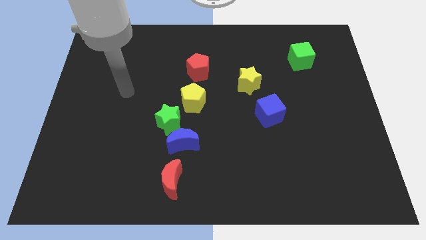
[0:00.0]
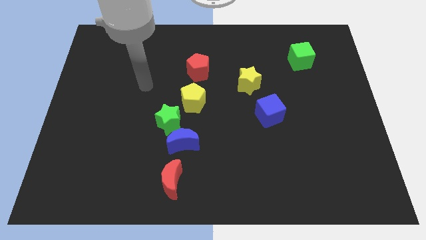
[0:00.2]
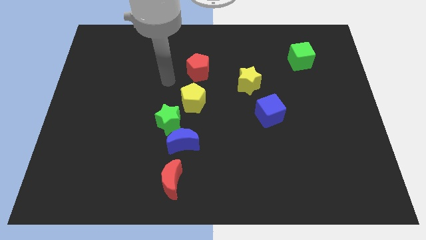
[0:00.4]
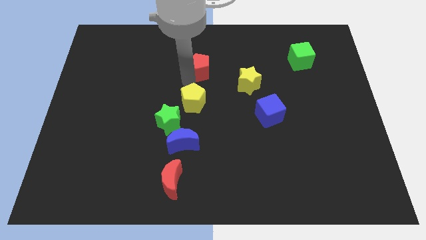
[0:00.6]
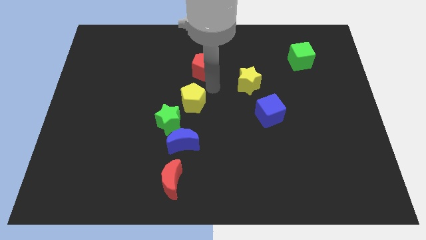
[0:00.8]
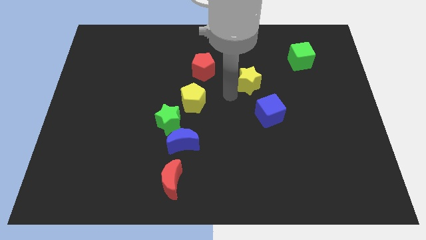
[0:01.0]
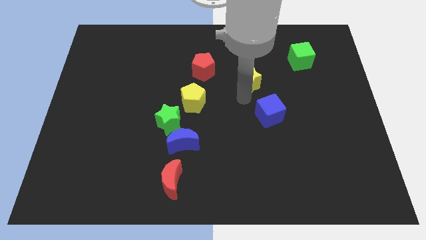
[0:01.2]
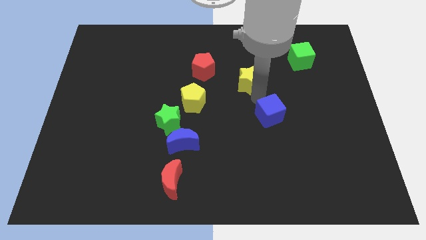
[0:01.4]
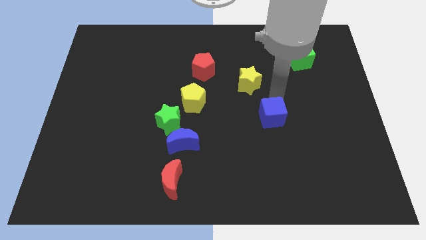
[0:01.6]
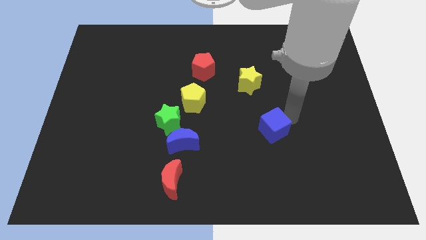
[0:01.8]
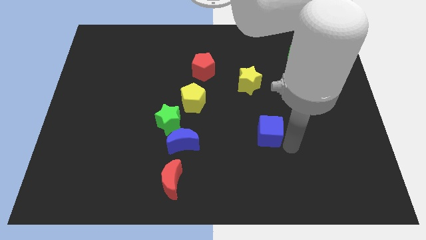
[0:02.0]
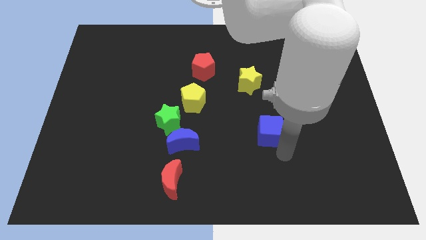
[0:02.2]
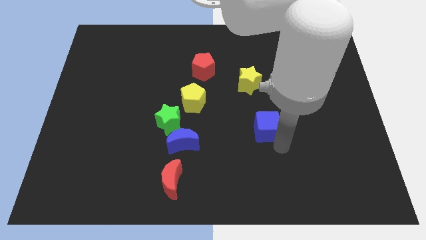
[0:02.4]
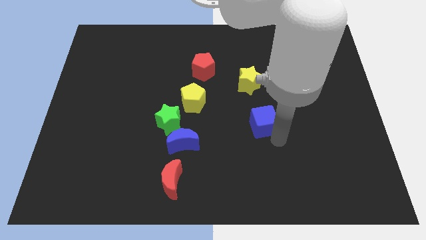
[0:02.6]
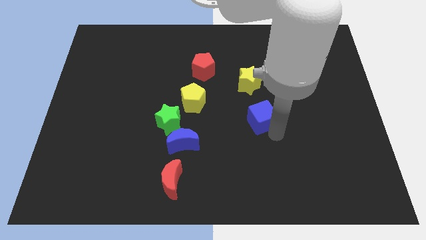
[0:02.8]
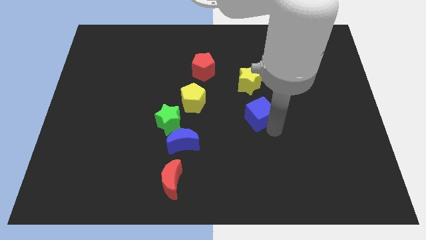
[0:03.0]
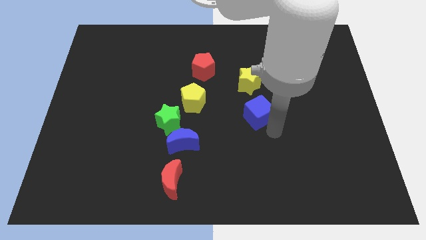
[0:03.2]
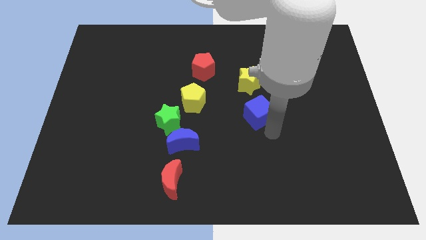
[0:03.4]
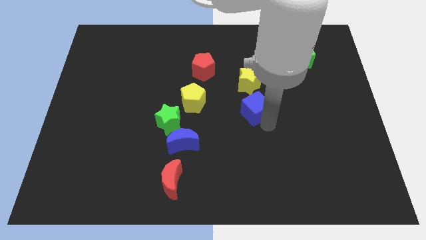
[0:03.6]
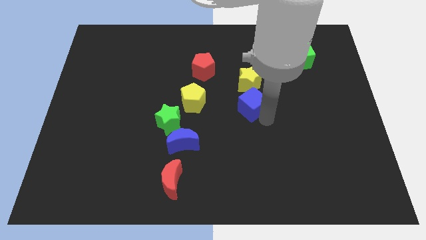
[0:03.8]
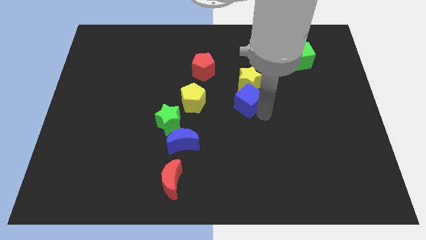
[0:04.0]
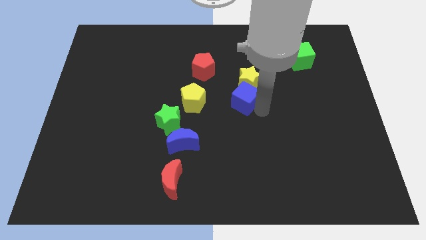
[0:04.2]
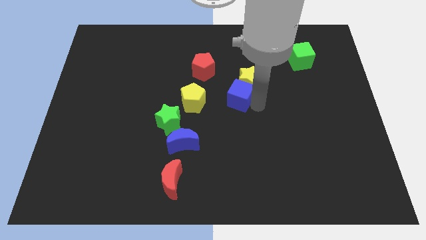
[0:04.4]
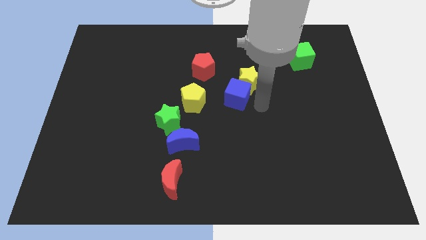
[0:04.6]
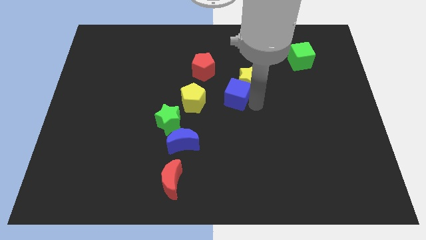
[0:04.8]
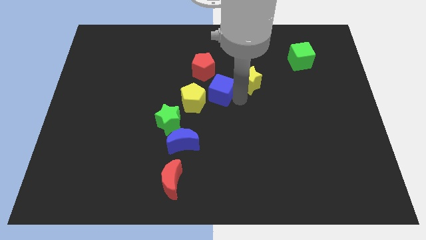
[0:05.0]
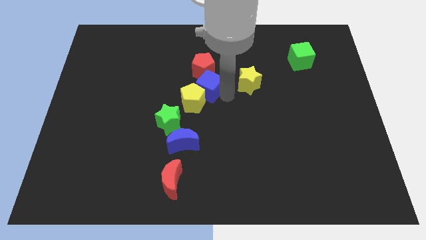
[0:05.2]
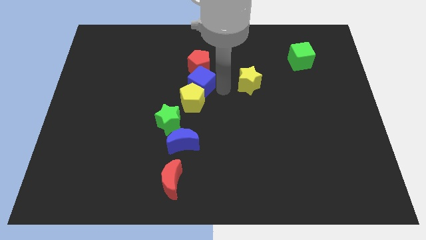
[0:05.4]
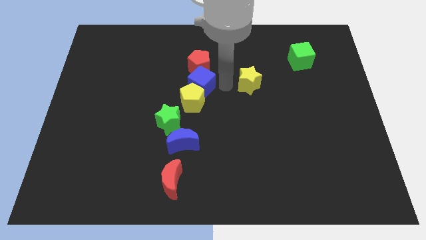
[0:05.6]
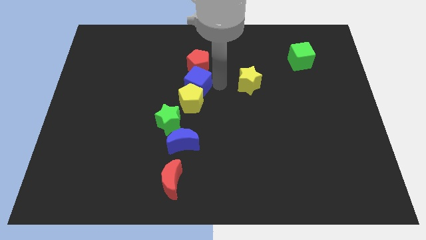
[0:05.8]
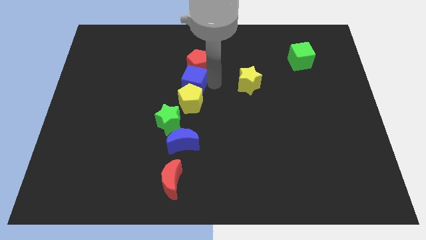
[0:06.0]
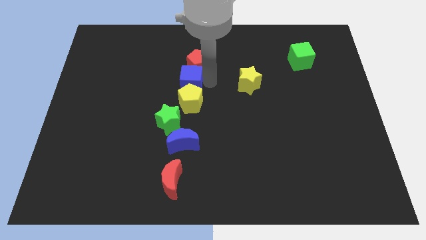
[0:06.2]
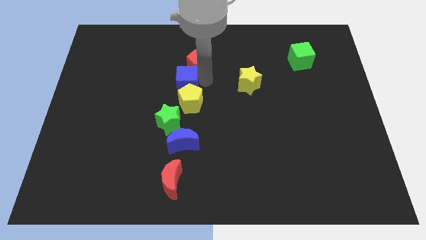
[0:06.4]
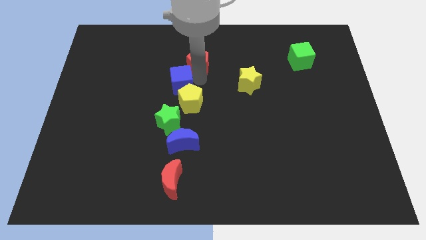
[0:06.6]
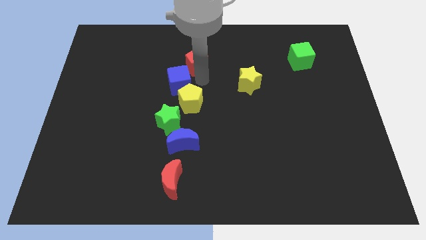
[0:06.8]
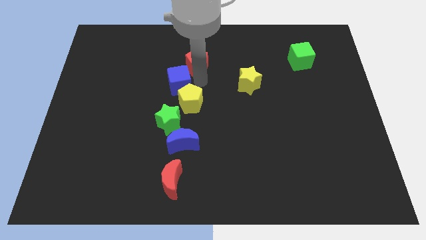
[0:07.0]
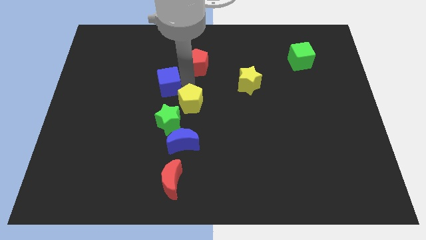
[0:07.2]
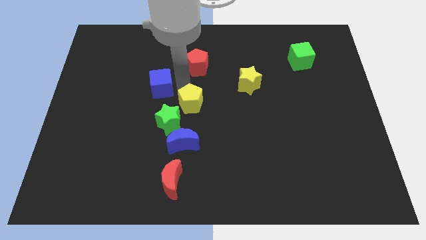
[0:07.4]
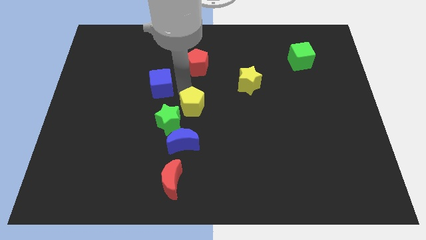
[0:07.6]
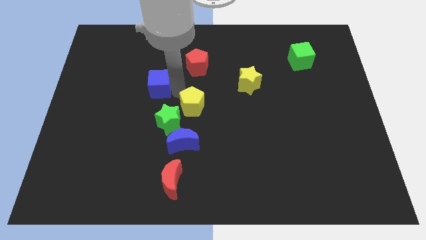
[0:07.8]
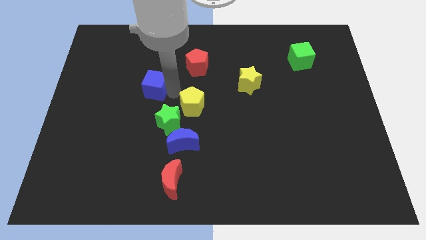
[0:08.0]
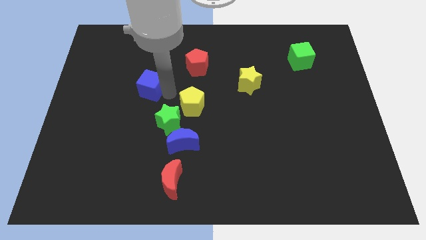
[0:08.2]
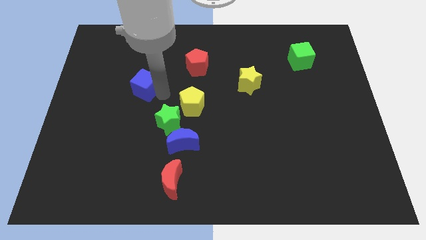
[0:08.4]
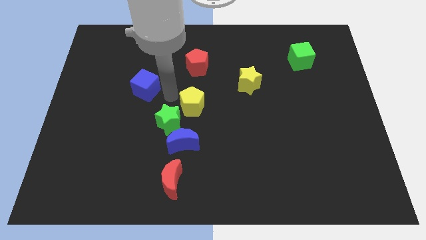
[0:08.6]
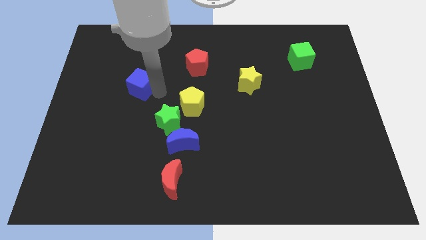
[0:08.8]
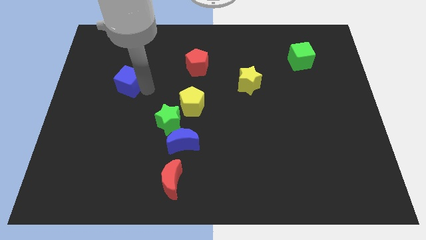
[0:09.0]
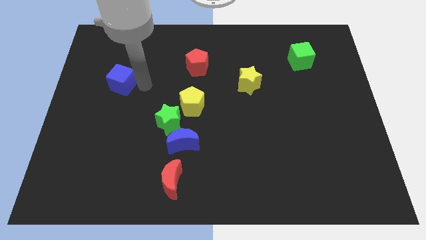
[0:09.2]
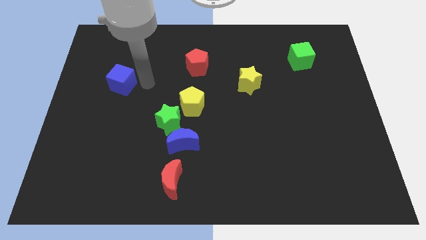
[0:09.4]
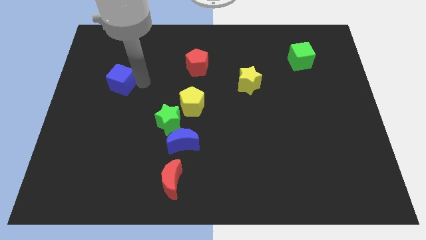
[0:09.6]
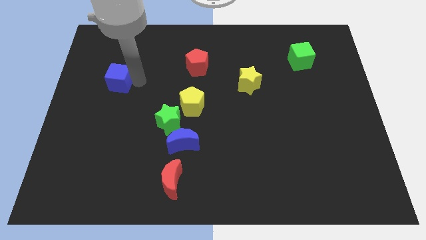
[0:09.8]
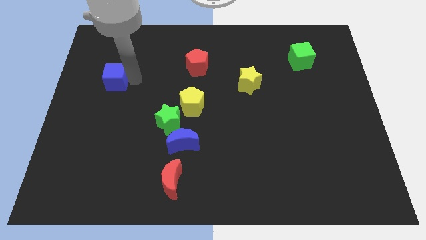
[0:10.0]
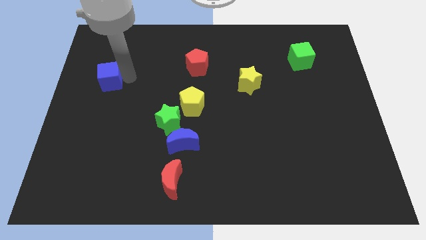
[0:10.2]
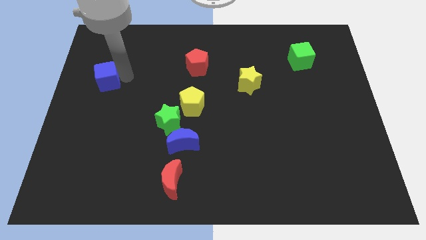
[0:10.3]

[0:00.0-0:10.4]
put the blue cube to the left side
